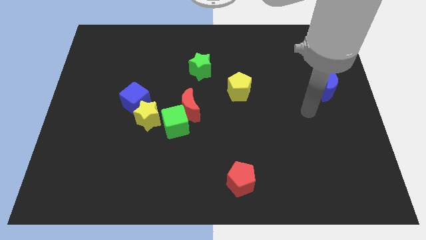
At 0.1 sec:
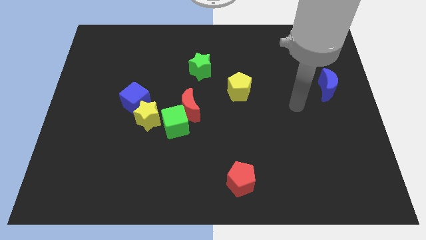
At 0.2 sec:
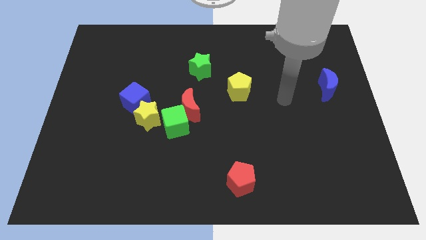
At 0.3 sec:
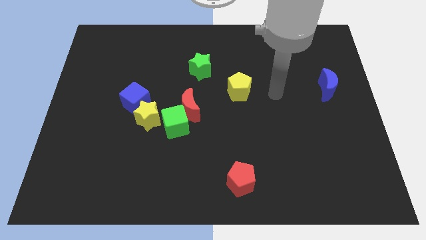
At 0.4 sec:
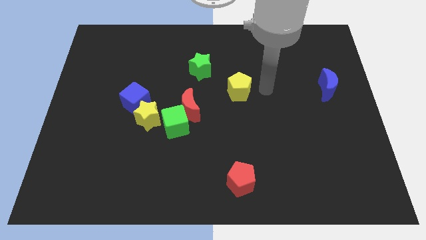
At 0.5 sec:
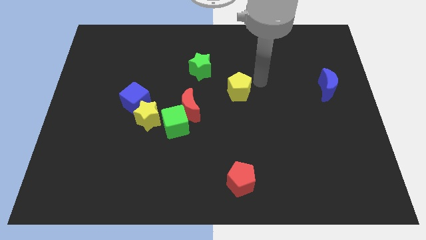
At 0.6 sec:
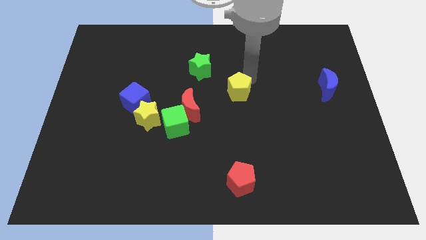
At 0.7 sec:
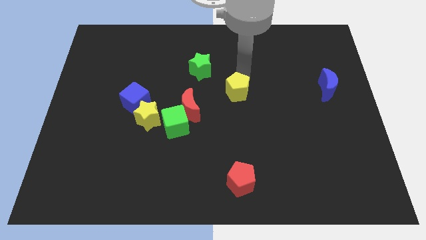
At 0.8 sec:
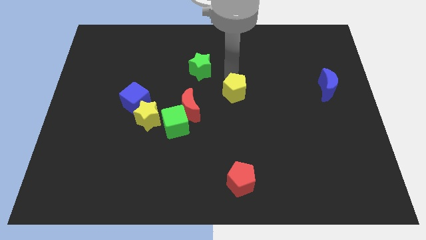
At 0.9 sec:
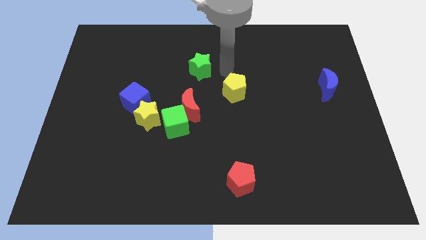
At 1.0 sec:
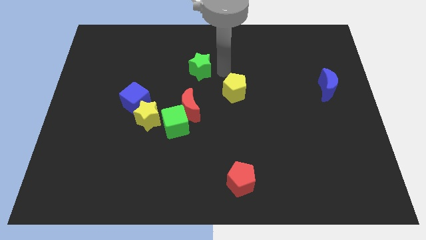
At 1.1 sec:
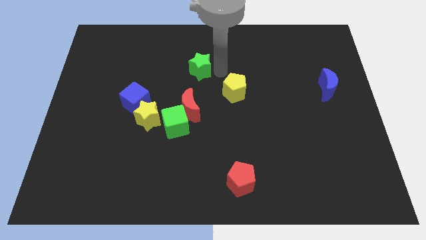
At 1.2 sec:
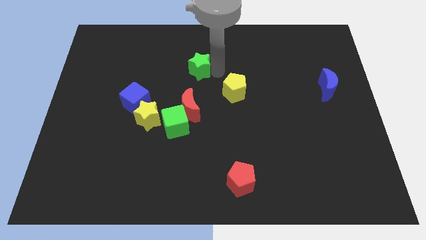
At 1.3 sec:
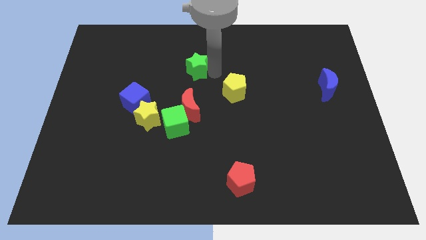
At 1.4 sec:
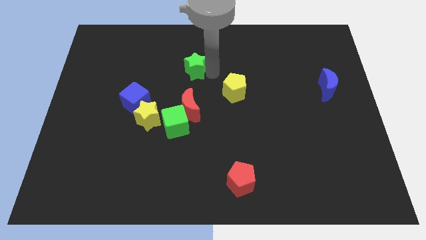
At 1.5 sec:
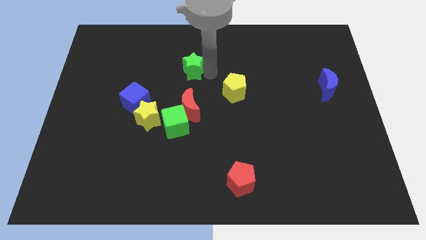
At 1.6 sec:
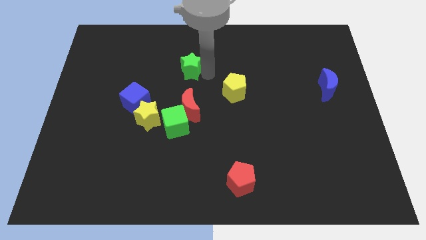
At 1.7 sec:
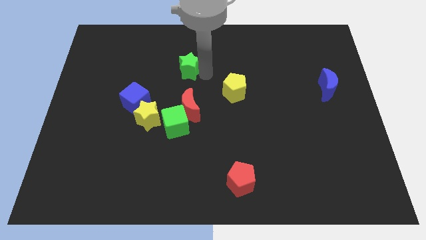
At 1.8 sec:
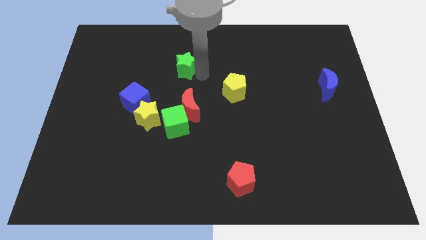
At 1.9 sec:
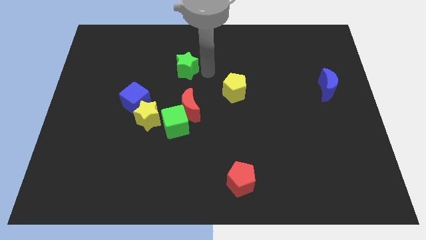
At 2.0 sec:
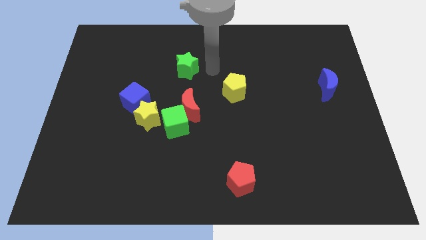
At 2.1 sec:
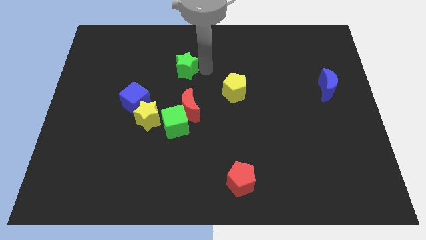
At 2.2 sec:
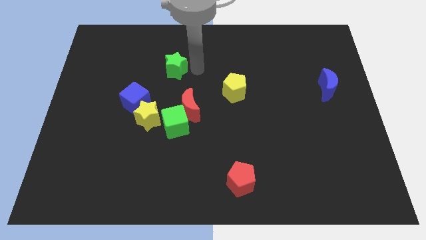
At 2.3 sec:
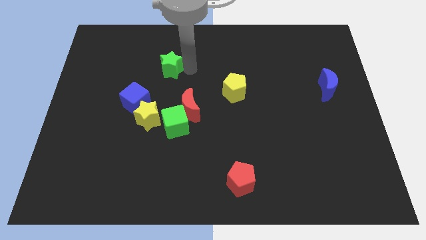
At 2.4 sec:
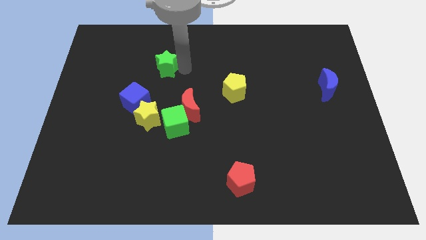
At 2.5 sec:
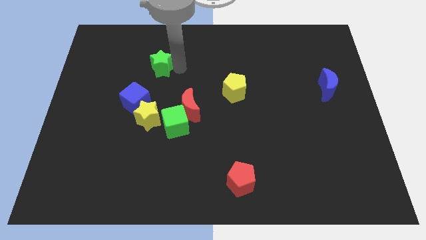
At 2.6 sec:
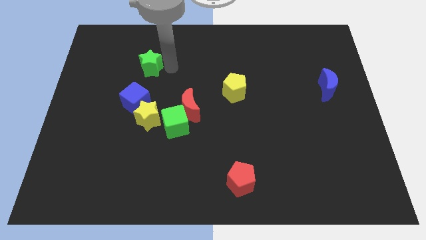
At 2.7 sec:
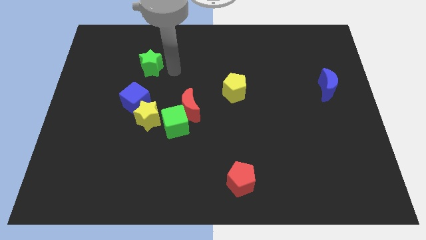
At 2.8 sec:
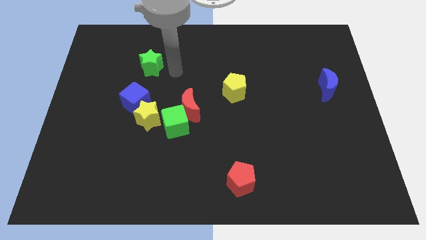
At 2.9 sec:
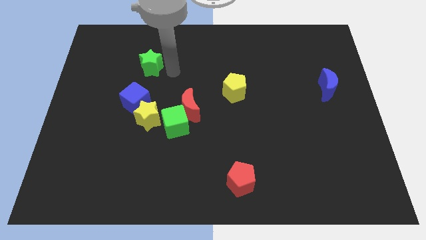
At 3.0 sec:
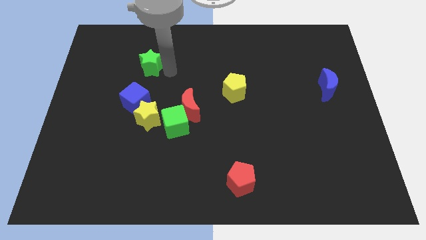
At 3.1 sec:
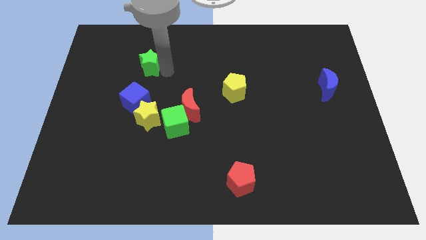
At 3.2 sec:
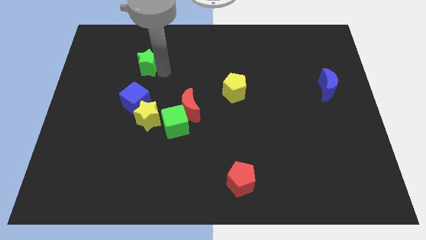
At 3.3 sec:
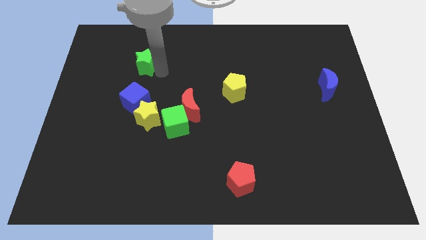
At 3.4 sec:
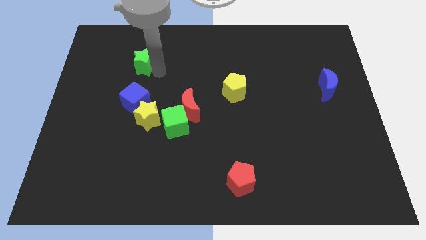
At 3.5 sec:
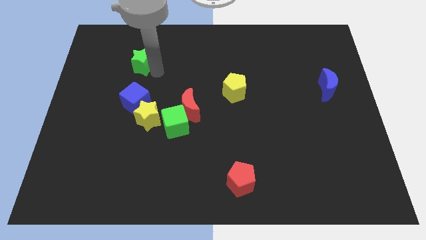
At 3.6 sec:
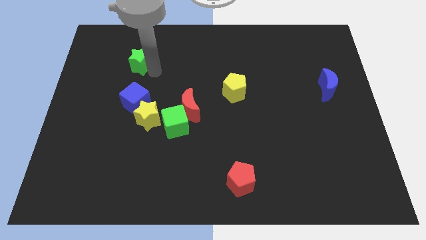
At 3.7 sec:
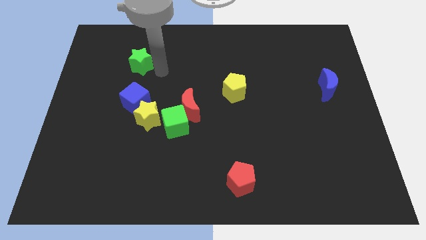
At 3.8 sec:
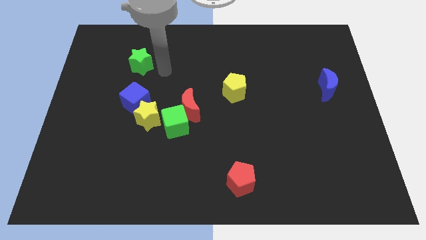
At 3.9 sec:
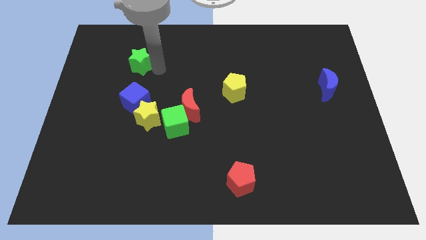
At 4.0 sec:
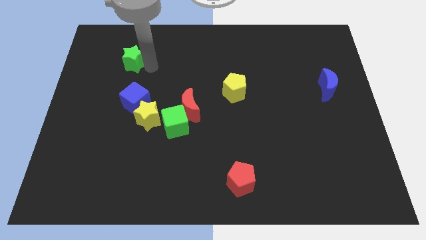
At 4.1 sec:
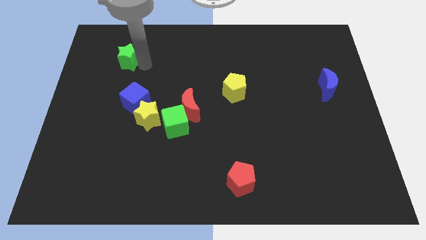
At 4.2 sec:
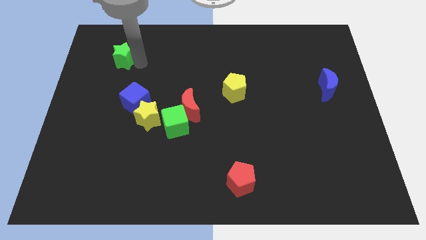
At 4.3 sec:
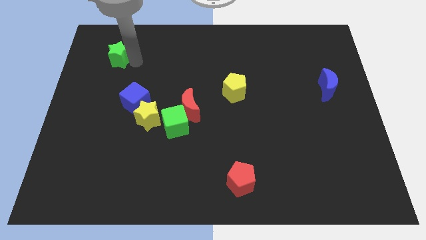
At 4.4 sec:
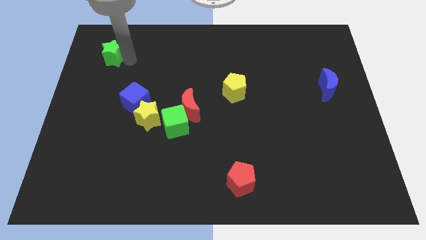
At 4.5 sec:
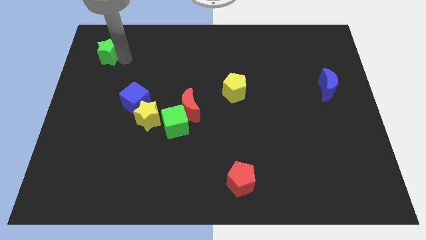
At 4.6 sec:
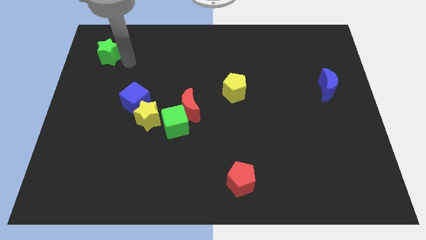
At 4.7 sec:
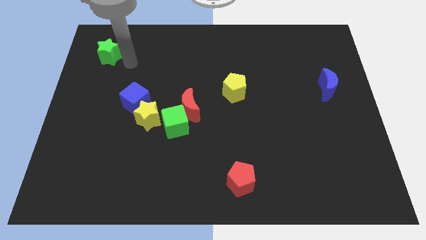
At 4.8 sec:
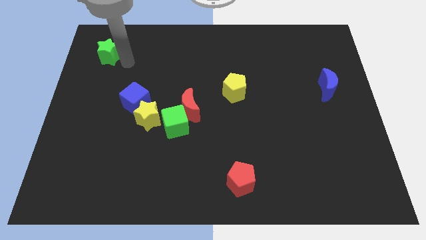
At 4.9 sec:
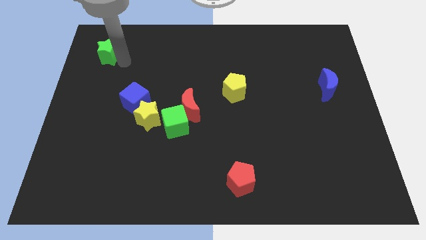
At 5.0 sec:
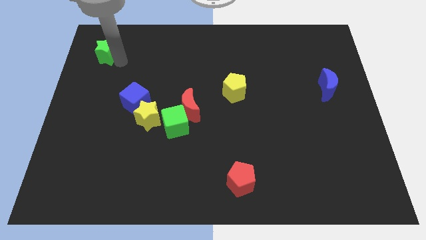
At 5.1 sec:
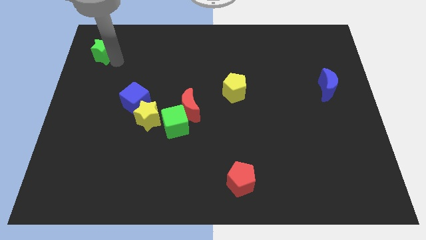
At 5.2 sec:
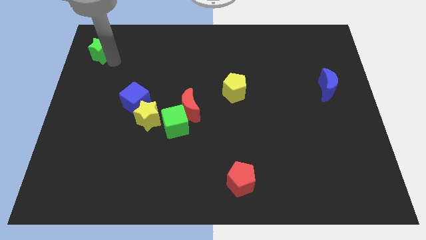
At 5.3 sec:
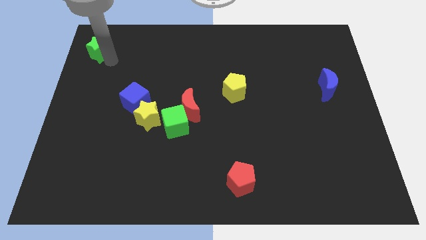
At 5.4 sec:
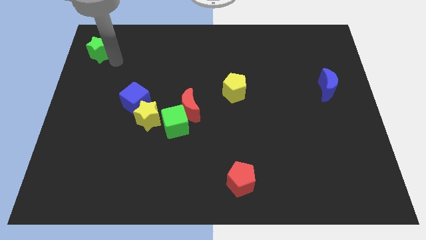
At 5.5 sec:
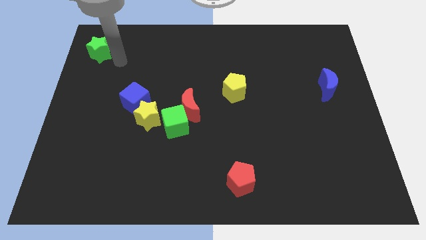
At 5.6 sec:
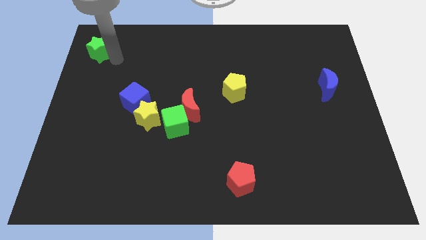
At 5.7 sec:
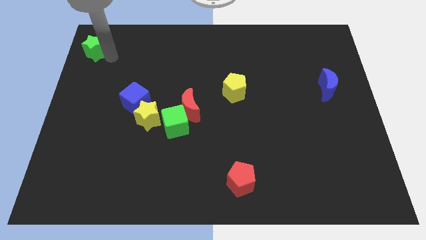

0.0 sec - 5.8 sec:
put the green star to the top left corner
